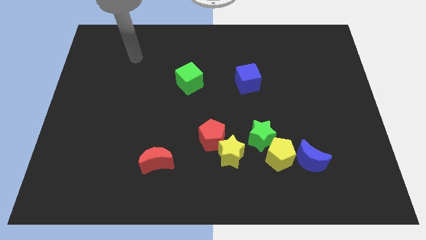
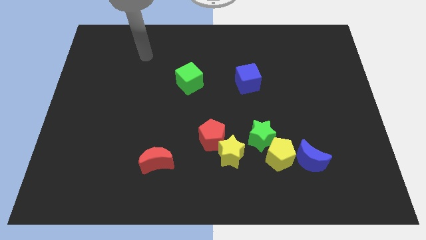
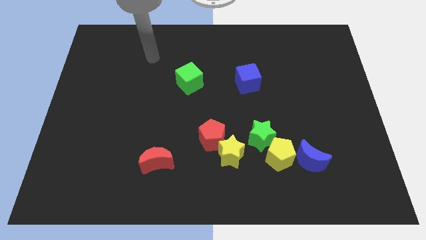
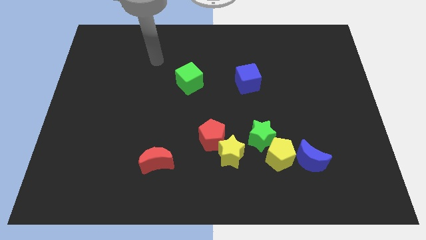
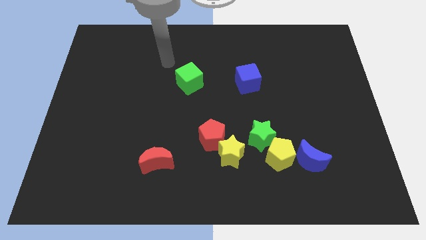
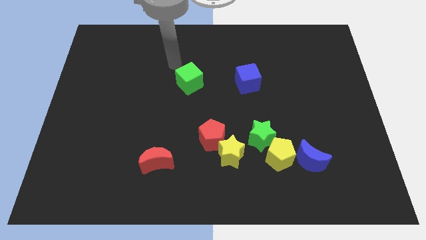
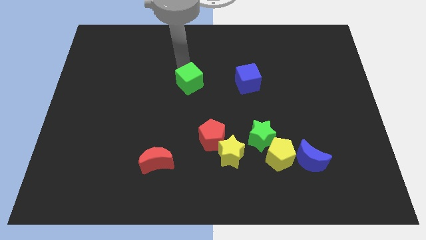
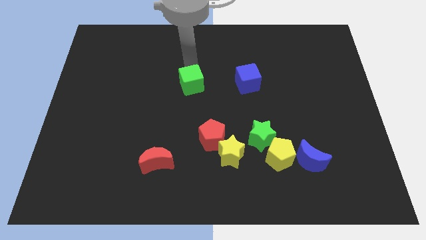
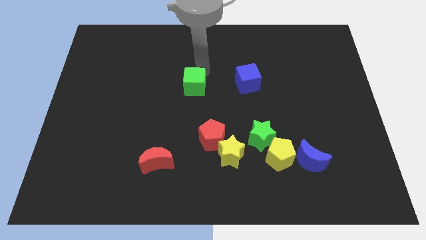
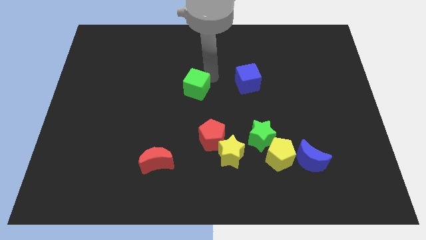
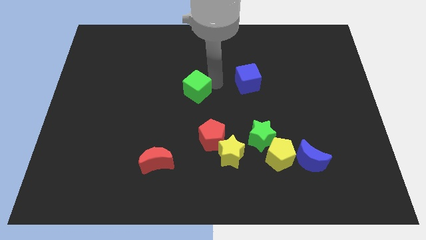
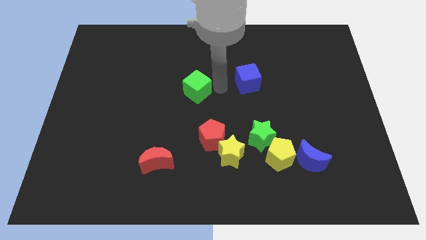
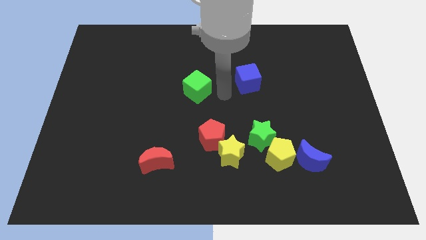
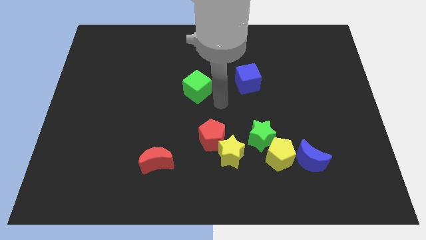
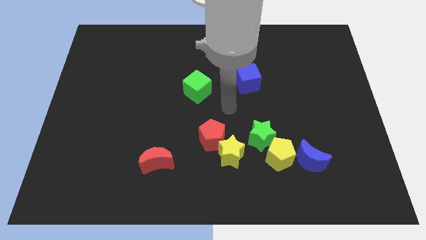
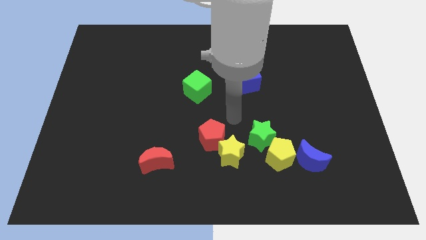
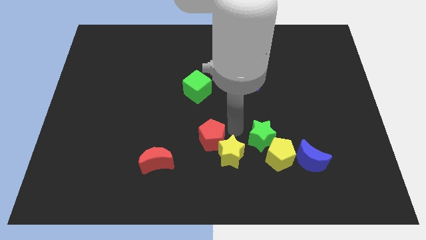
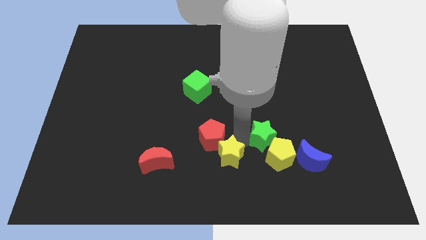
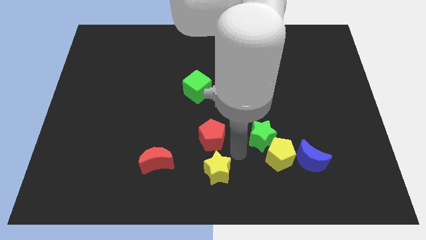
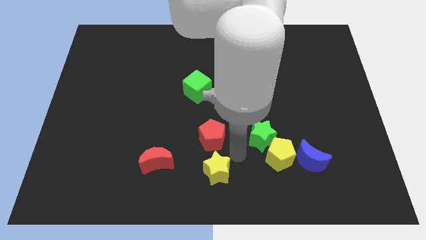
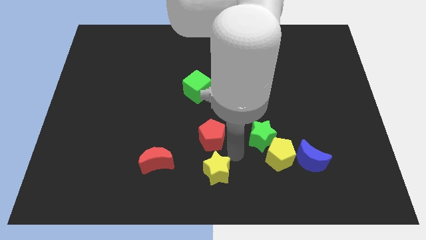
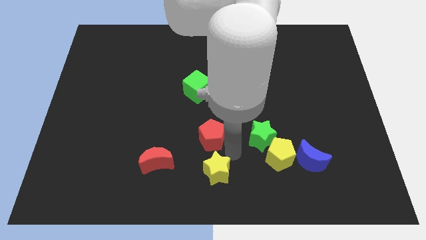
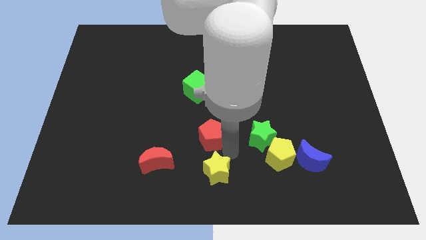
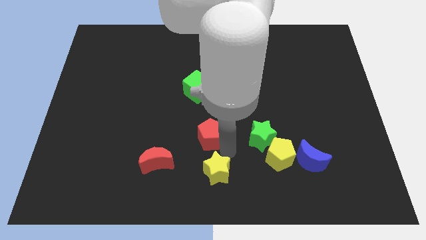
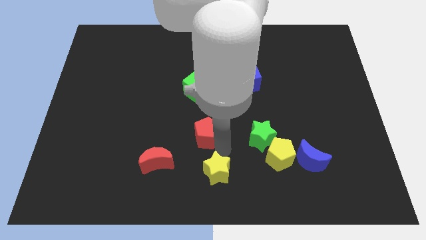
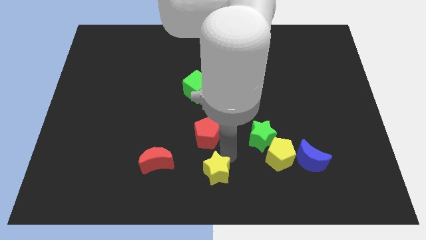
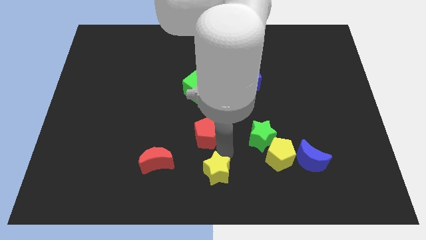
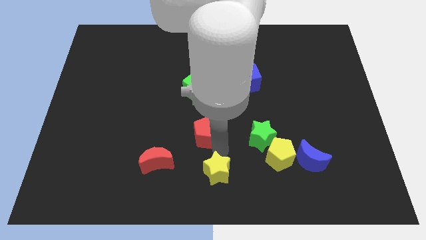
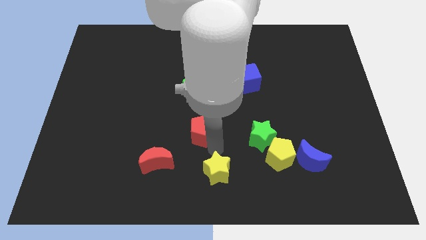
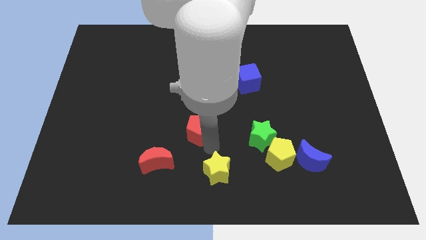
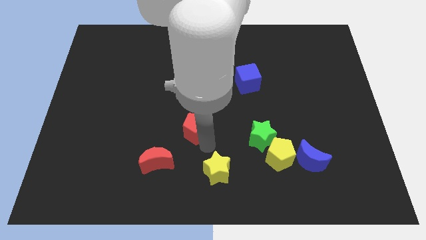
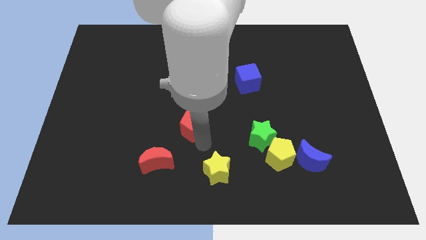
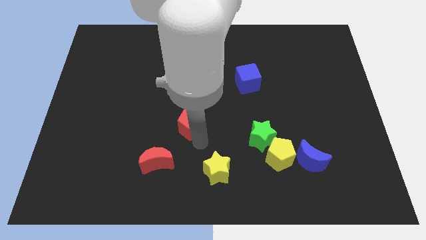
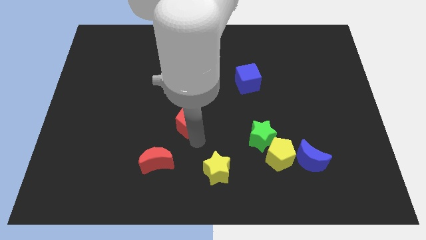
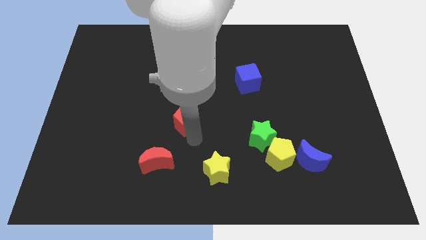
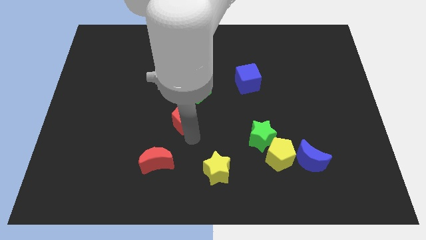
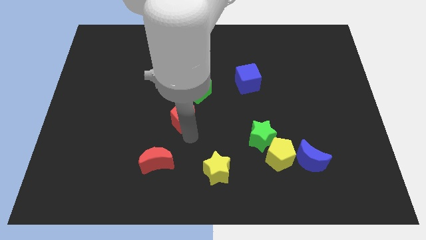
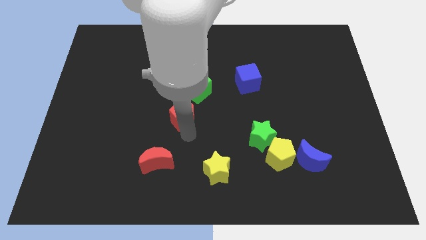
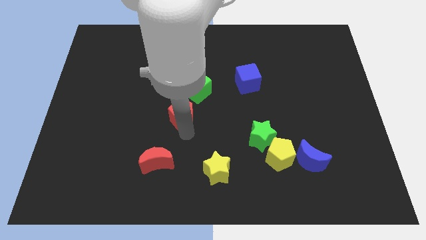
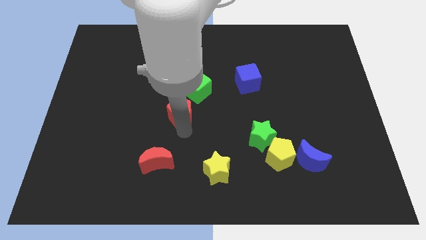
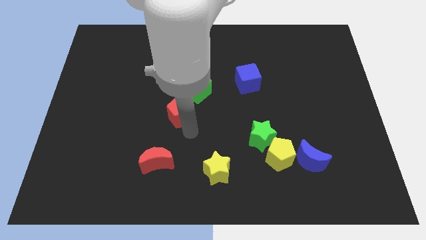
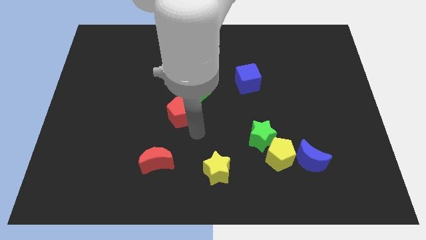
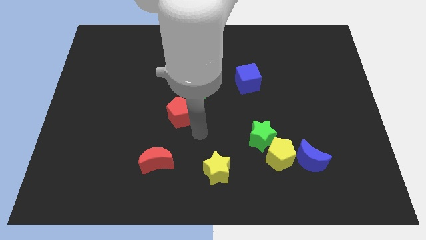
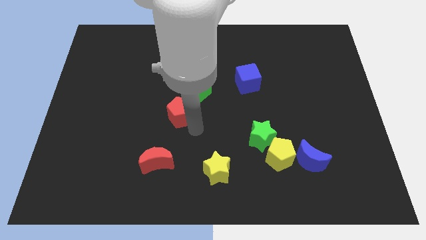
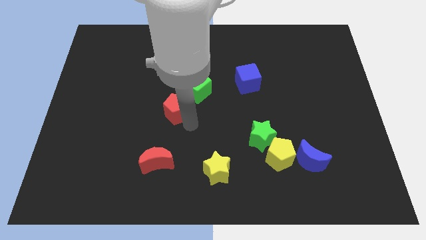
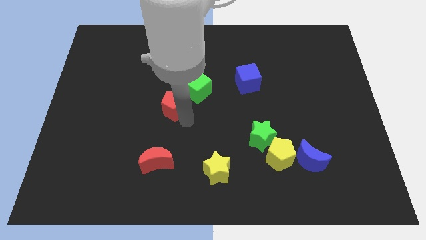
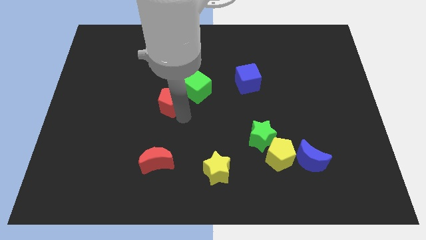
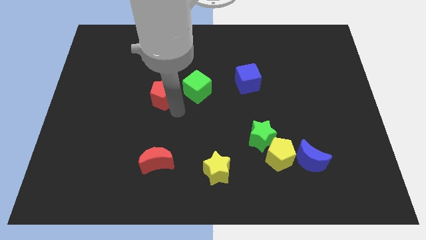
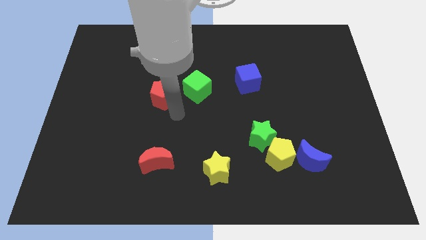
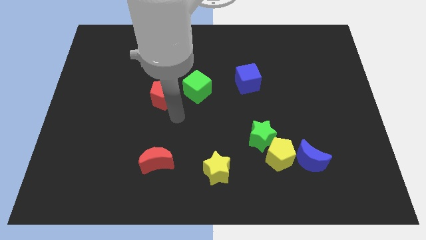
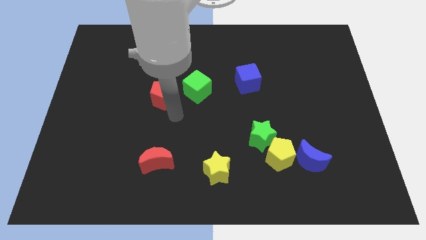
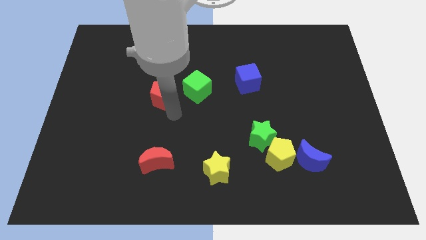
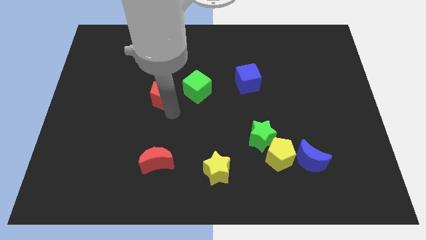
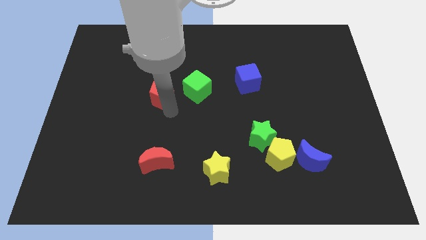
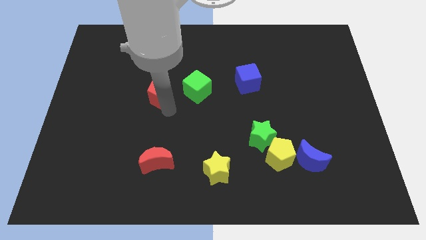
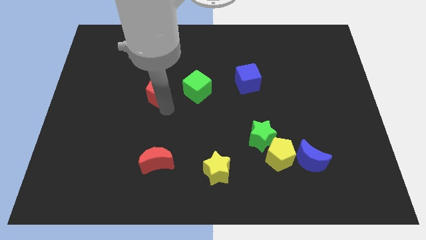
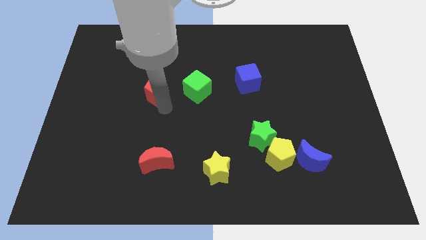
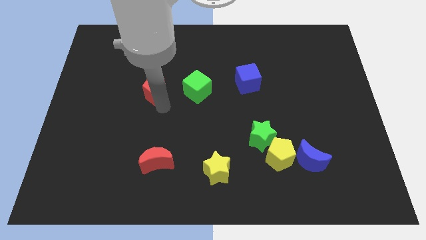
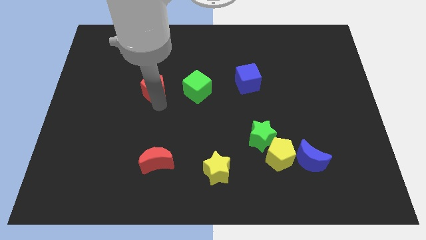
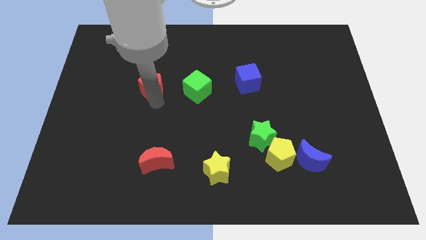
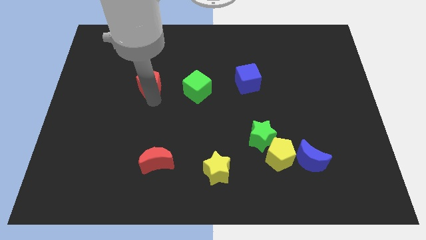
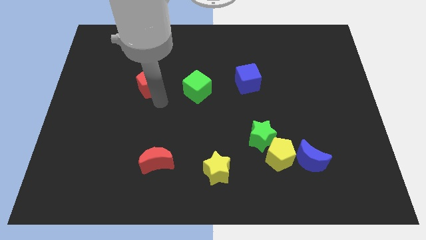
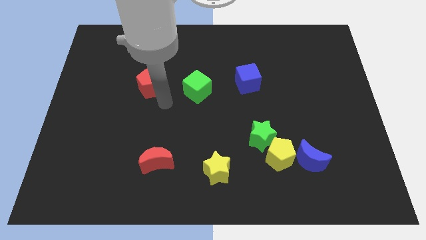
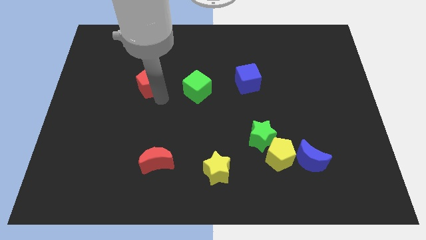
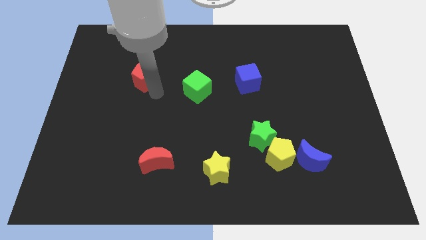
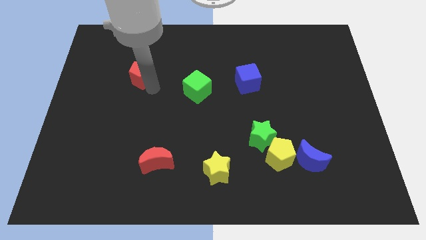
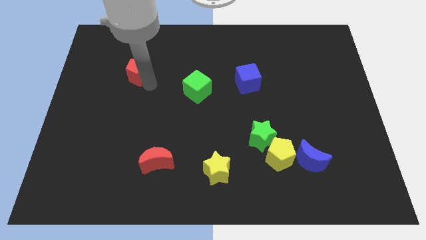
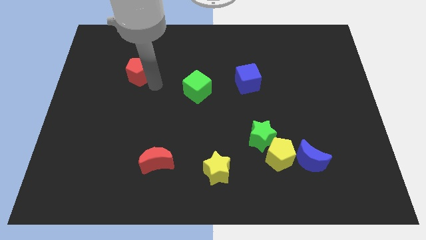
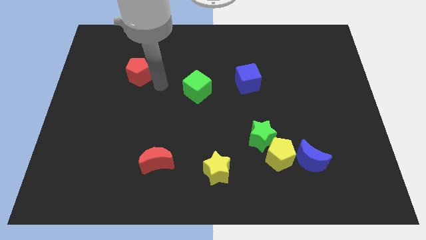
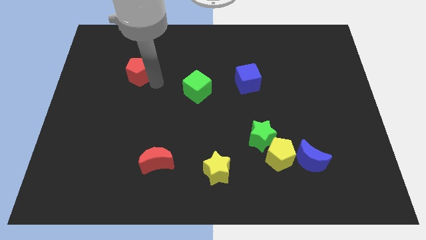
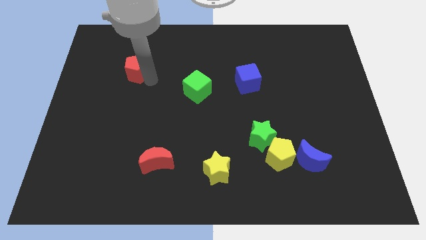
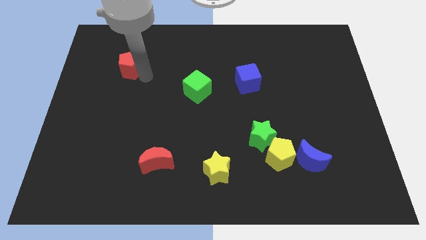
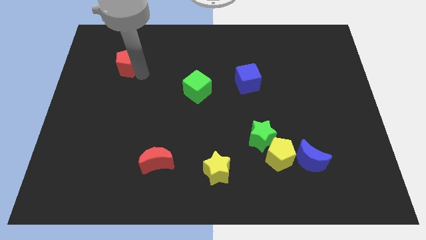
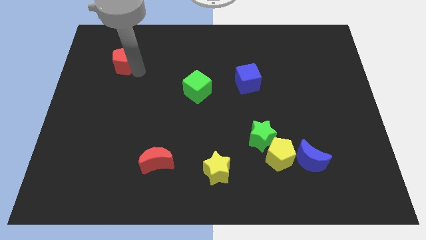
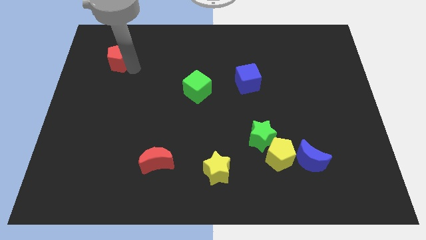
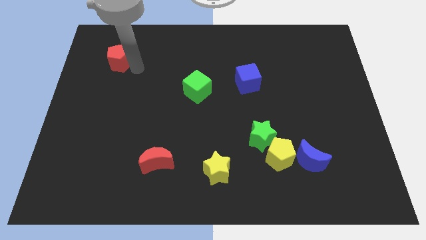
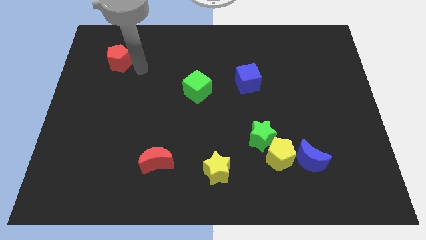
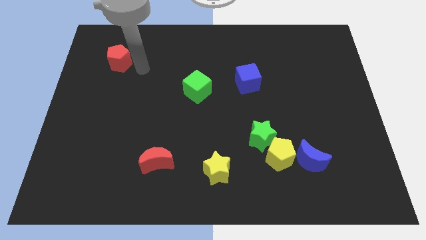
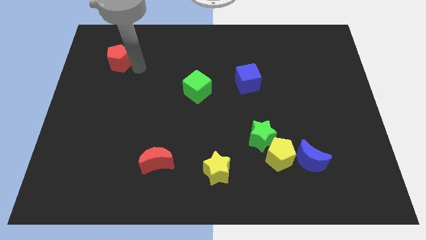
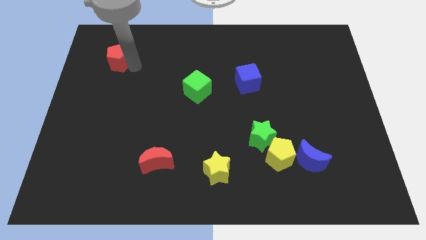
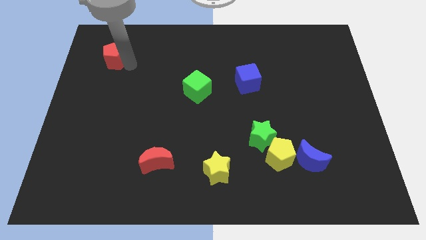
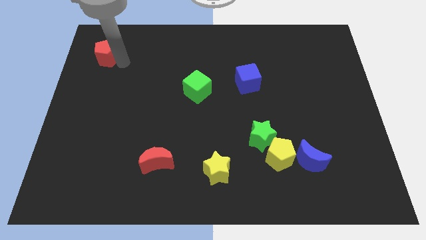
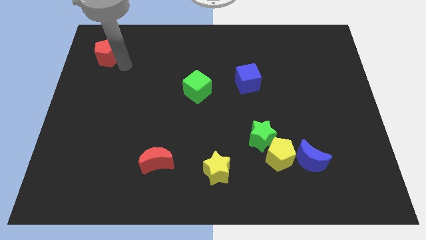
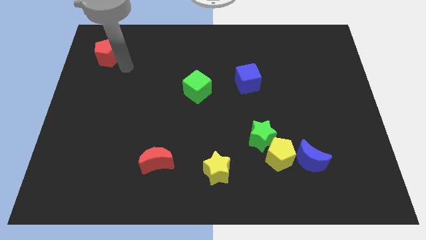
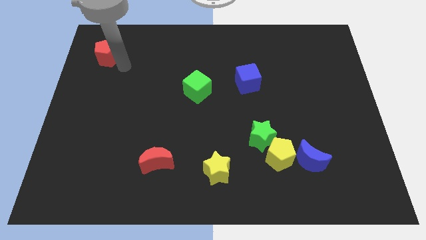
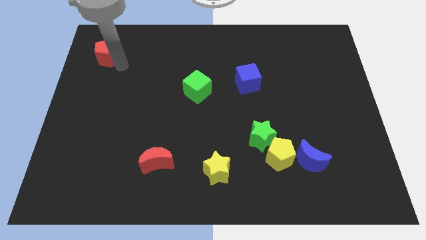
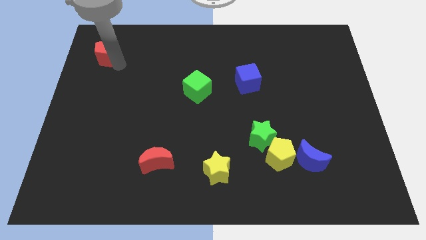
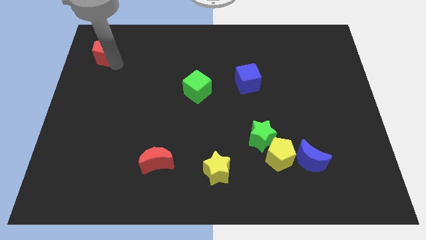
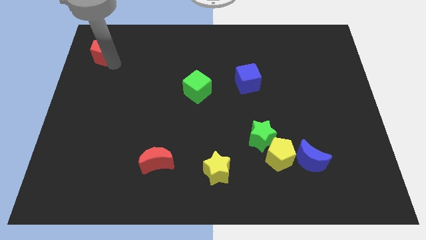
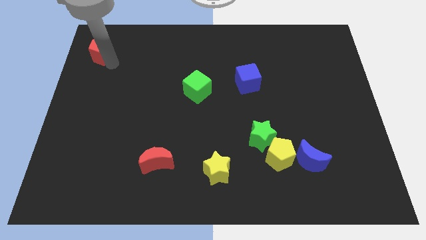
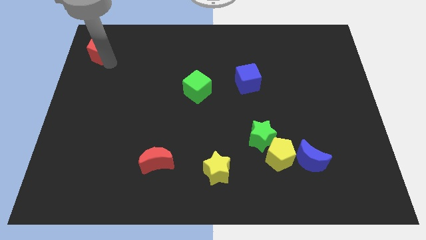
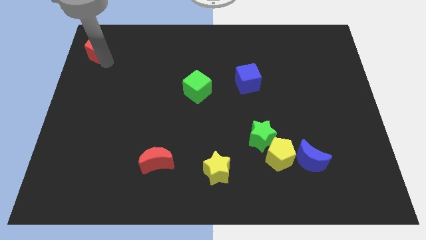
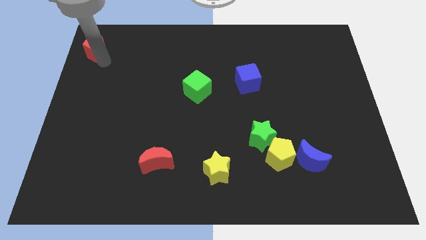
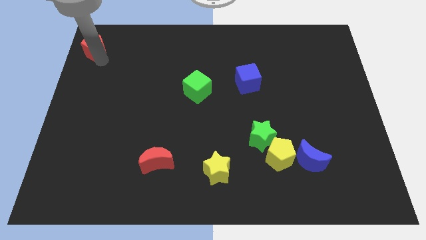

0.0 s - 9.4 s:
put the red pentagon to the top left corner
